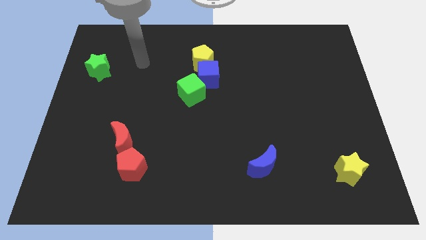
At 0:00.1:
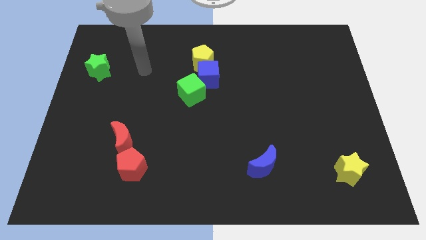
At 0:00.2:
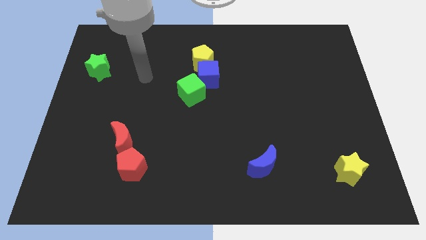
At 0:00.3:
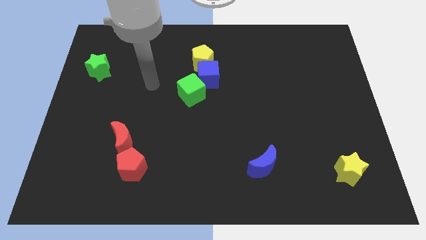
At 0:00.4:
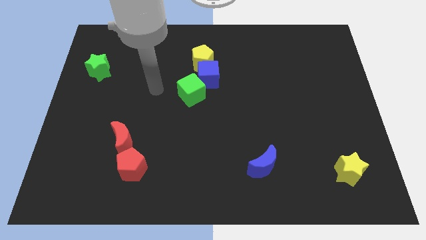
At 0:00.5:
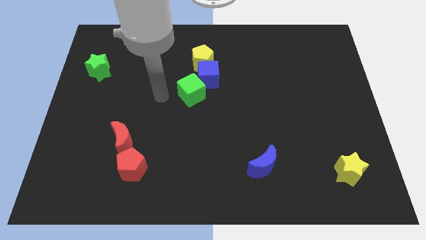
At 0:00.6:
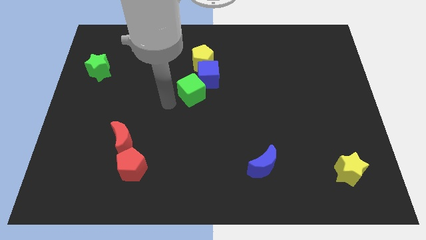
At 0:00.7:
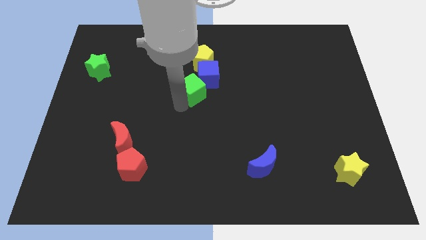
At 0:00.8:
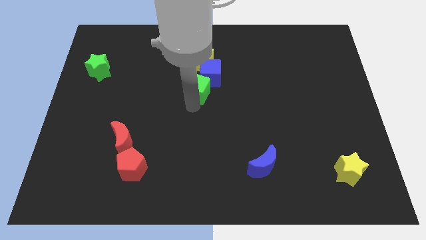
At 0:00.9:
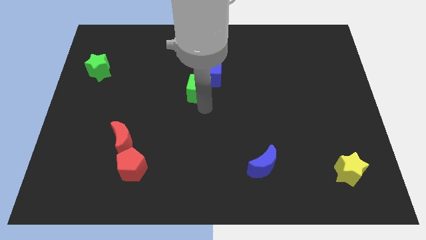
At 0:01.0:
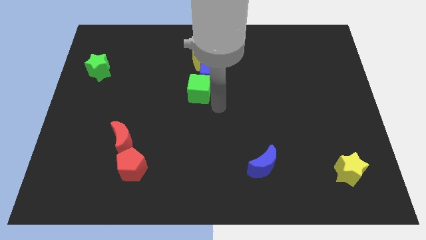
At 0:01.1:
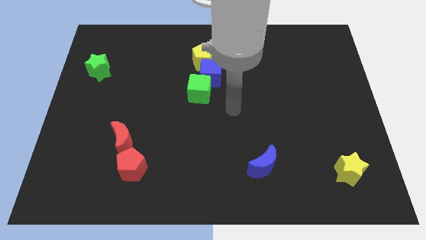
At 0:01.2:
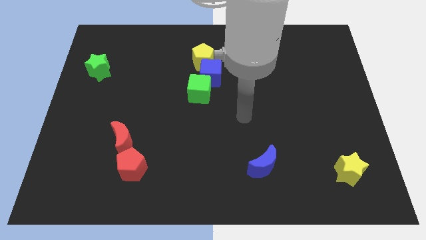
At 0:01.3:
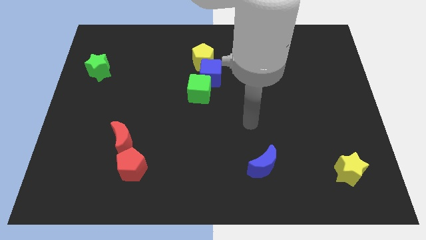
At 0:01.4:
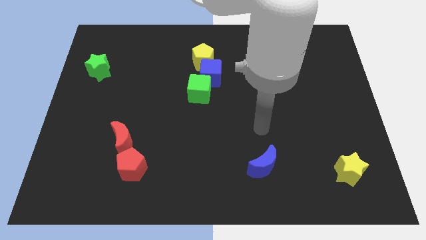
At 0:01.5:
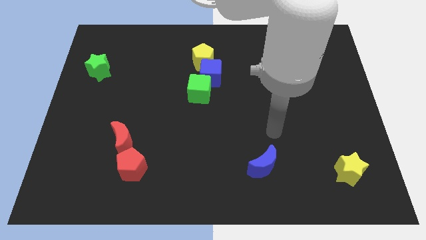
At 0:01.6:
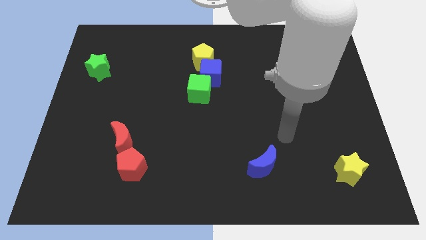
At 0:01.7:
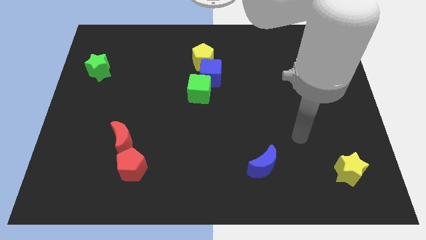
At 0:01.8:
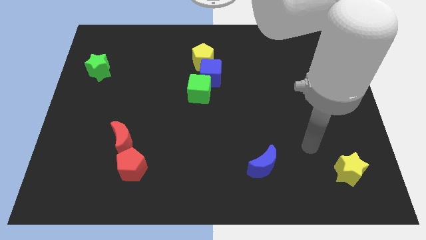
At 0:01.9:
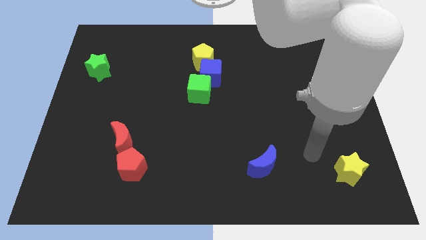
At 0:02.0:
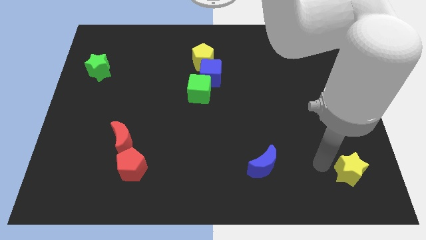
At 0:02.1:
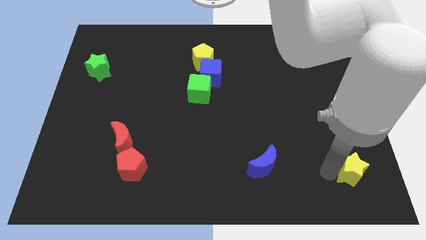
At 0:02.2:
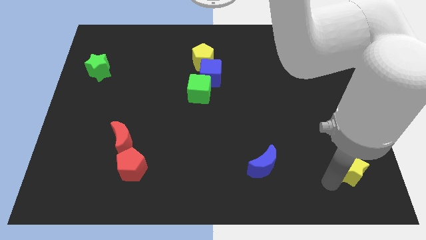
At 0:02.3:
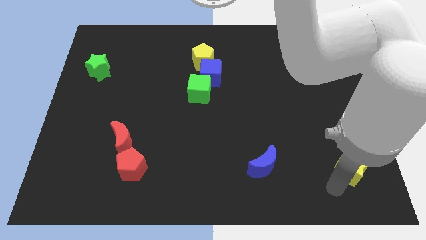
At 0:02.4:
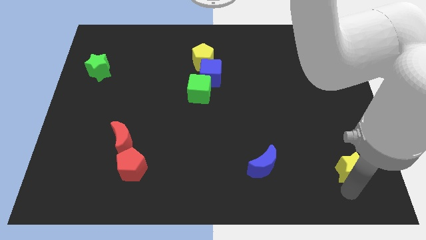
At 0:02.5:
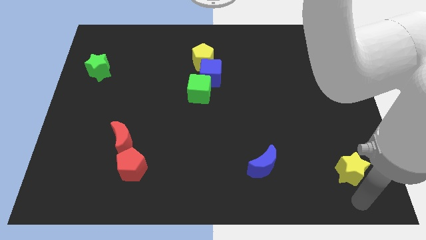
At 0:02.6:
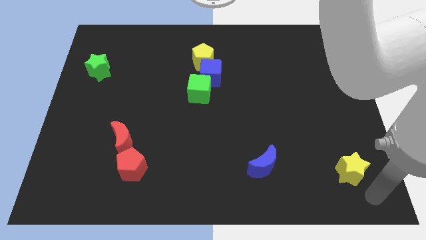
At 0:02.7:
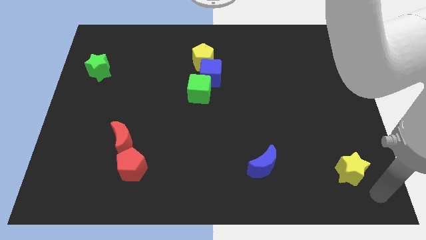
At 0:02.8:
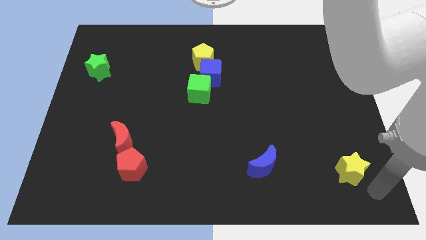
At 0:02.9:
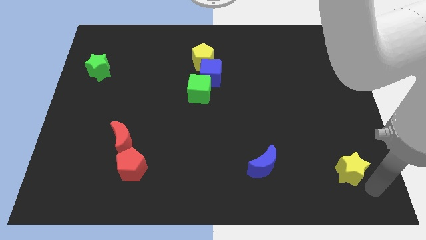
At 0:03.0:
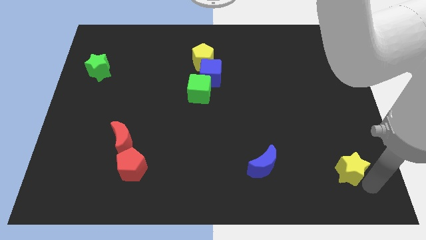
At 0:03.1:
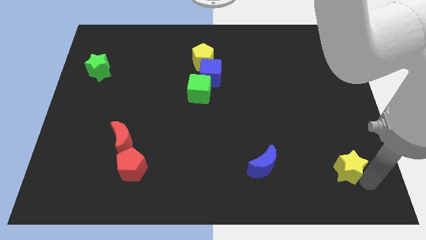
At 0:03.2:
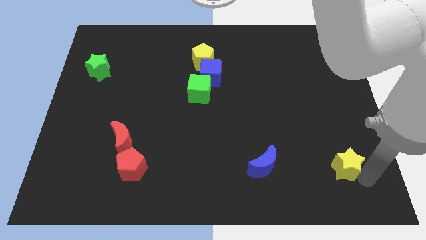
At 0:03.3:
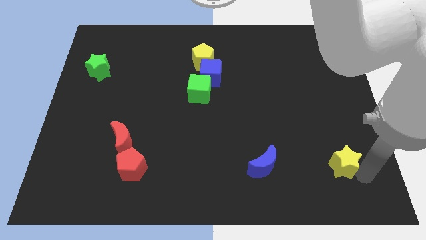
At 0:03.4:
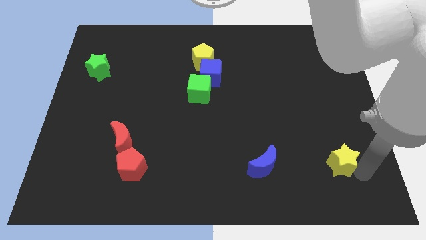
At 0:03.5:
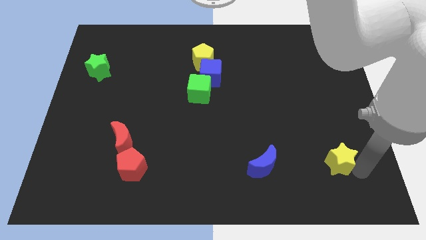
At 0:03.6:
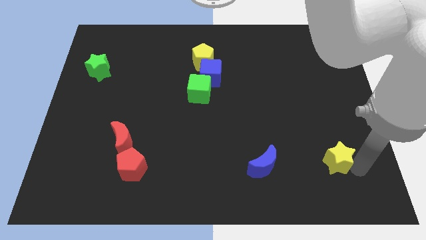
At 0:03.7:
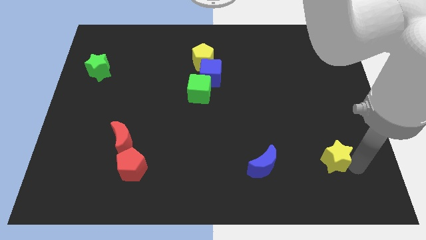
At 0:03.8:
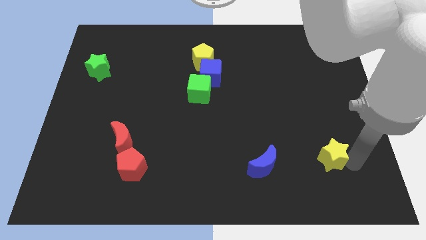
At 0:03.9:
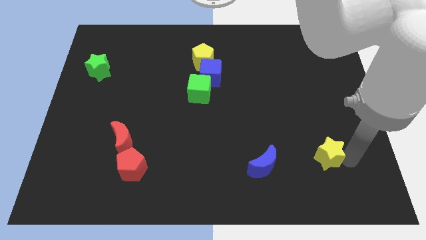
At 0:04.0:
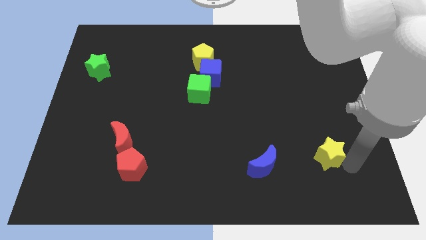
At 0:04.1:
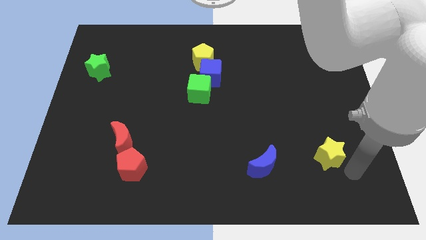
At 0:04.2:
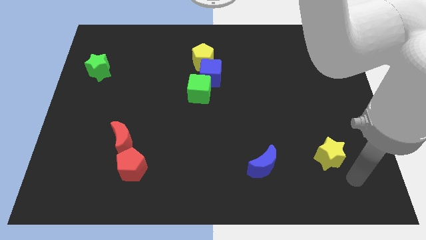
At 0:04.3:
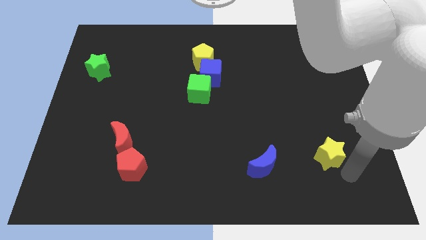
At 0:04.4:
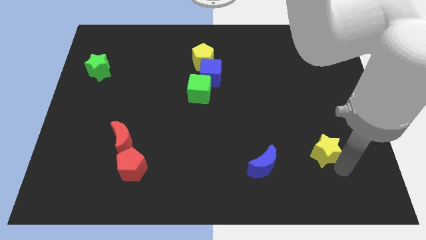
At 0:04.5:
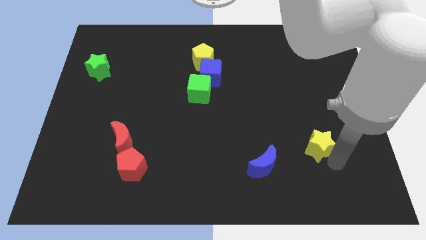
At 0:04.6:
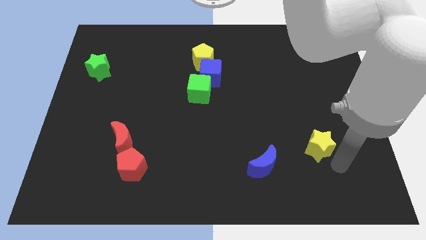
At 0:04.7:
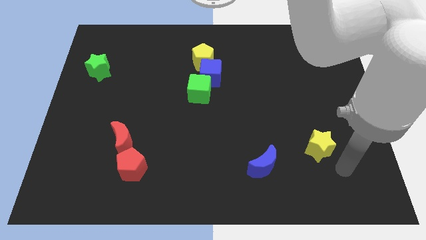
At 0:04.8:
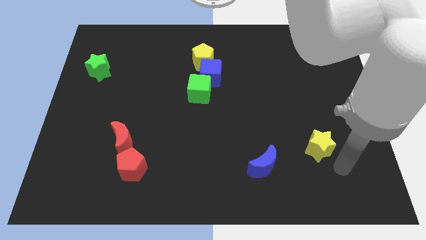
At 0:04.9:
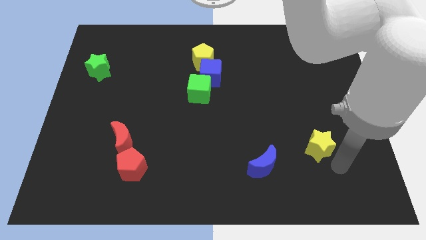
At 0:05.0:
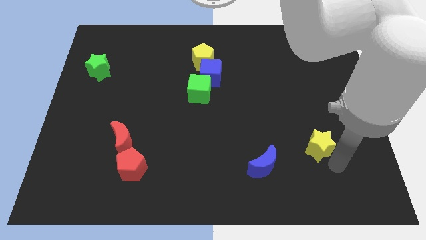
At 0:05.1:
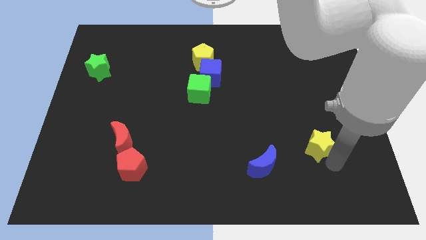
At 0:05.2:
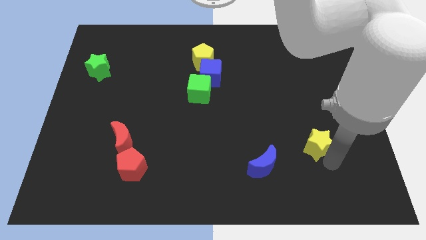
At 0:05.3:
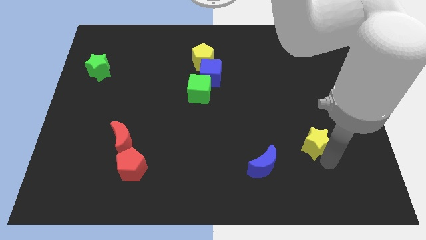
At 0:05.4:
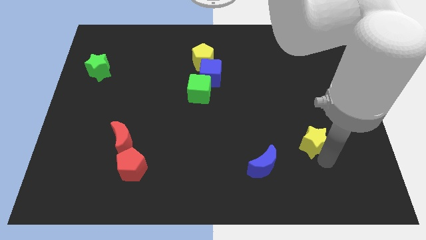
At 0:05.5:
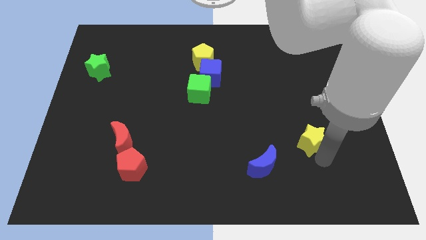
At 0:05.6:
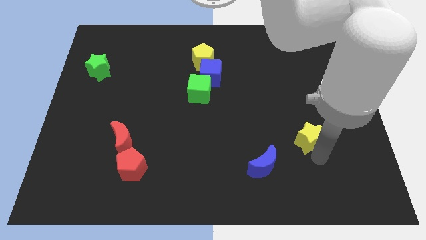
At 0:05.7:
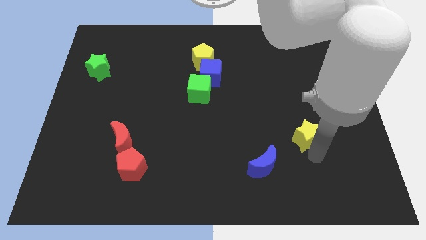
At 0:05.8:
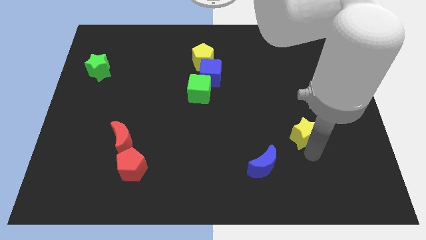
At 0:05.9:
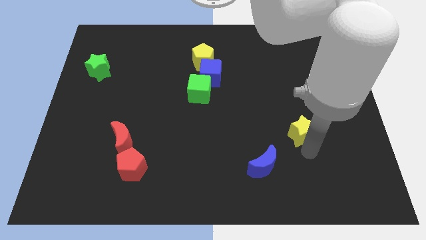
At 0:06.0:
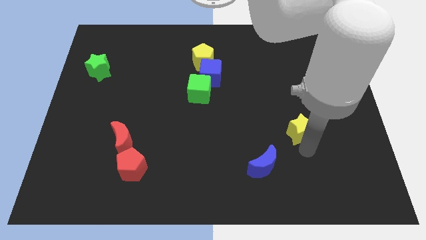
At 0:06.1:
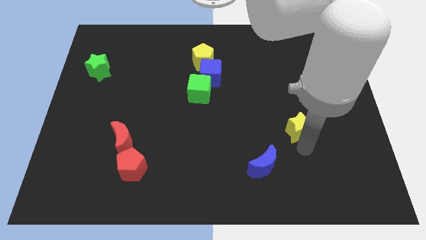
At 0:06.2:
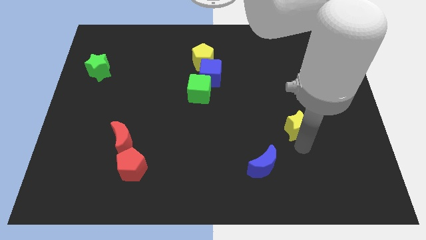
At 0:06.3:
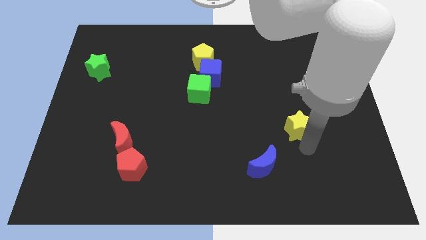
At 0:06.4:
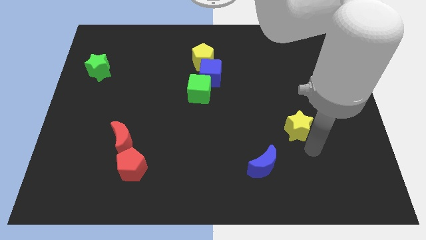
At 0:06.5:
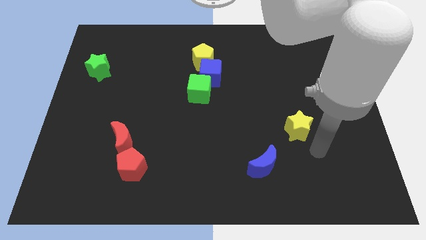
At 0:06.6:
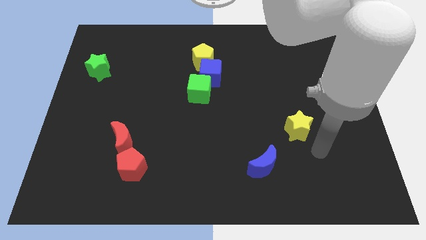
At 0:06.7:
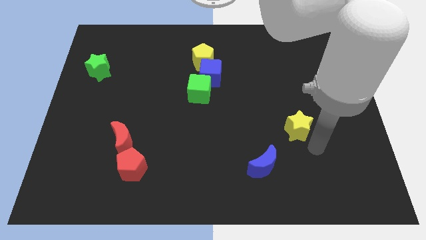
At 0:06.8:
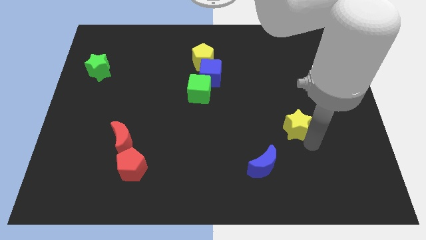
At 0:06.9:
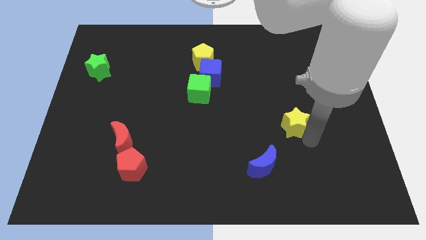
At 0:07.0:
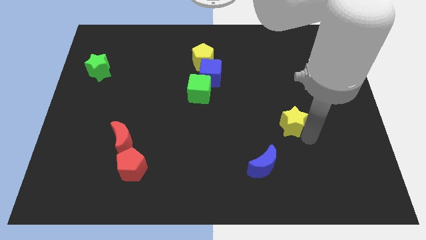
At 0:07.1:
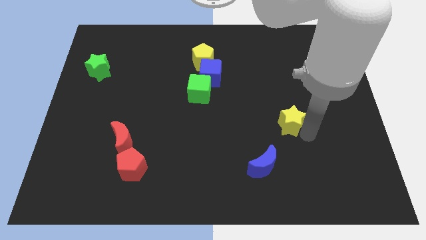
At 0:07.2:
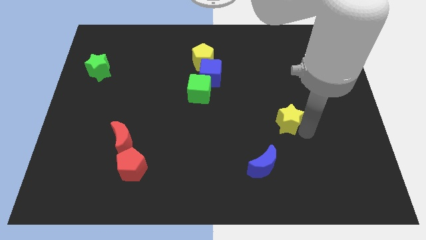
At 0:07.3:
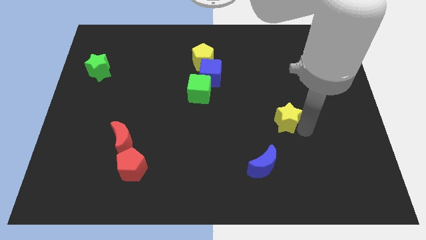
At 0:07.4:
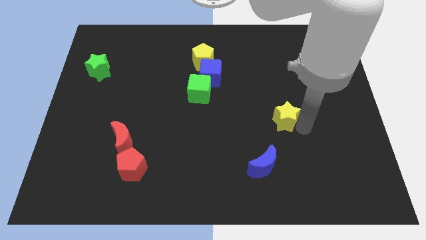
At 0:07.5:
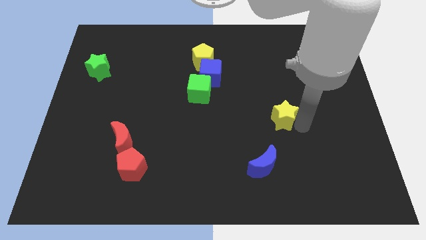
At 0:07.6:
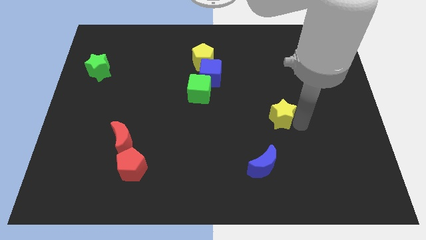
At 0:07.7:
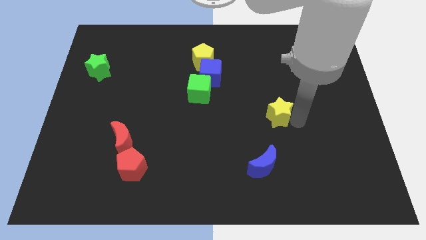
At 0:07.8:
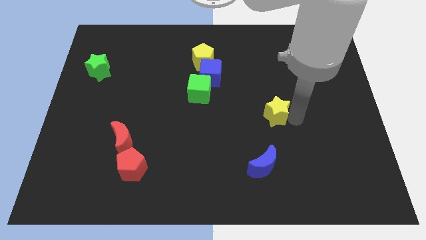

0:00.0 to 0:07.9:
slide the yellow star upwards and left diagonally

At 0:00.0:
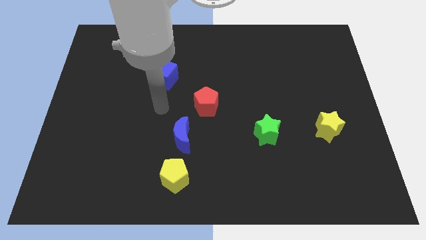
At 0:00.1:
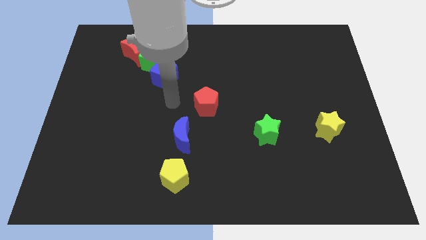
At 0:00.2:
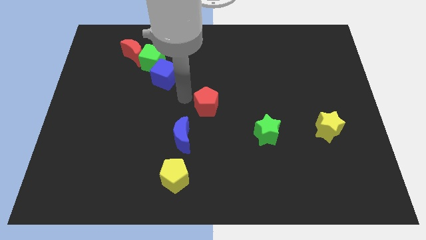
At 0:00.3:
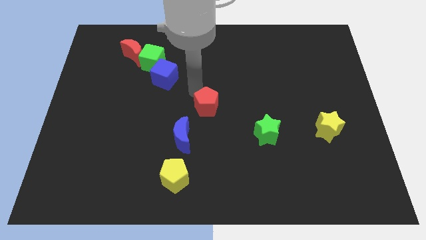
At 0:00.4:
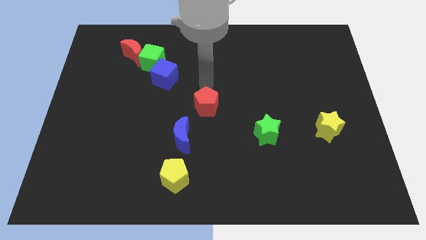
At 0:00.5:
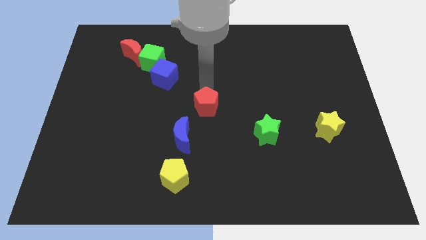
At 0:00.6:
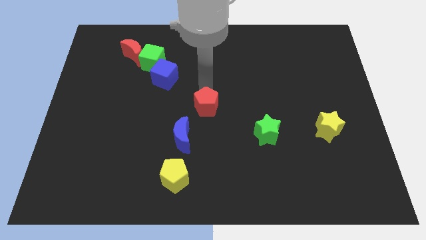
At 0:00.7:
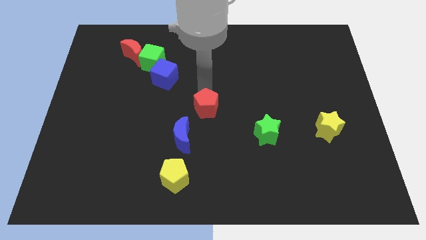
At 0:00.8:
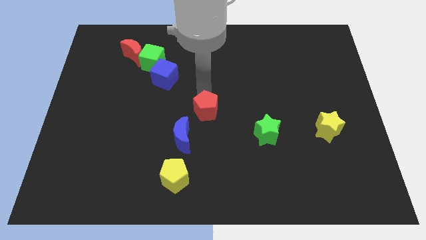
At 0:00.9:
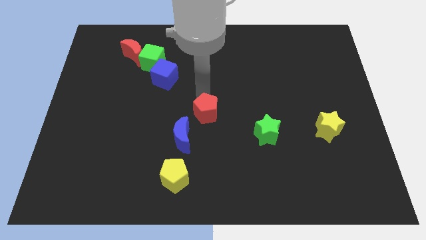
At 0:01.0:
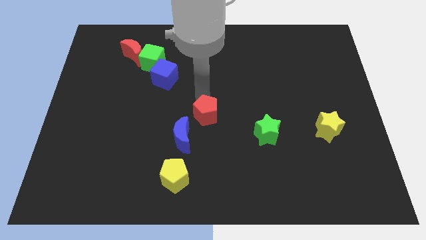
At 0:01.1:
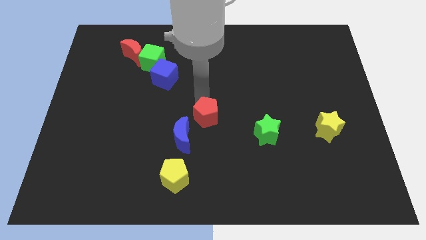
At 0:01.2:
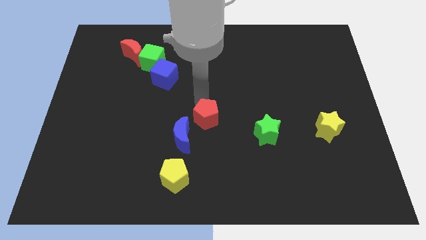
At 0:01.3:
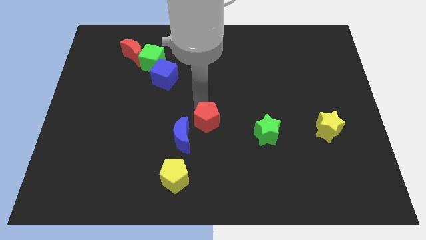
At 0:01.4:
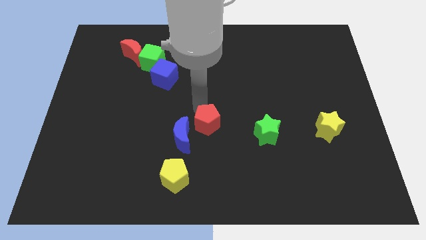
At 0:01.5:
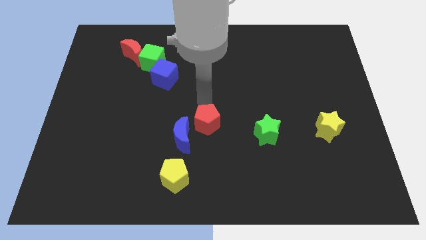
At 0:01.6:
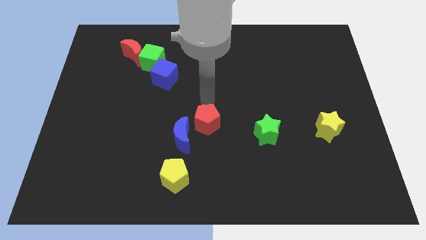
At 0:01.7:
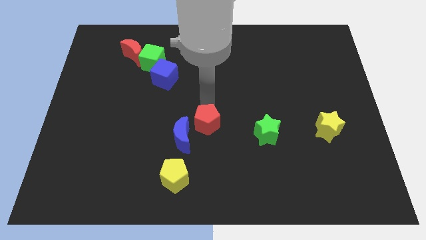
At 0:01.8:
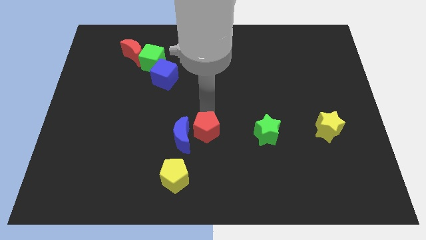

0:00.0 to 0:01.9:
slide the red pentagon downwards slightly
